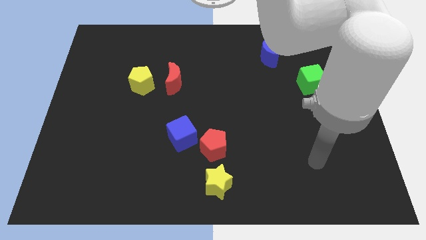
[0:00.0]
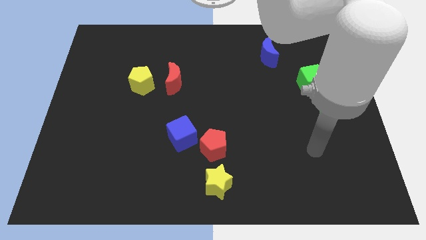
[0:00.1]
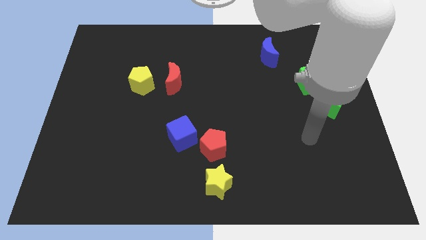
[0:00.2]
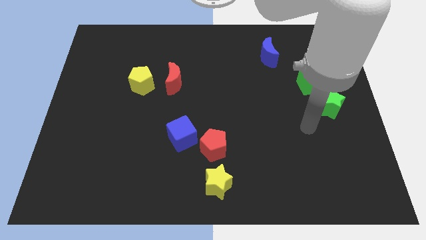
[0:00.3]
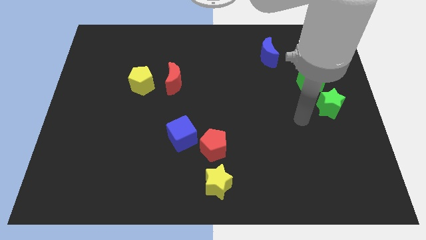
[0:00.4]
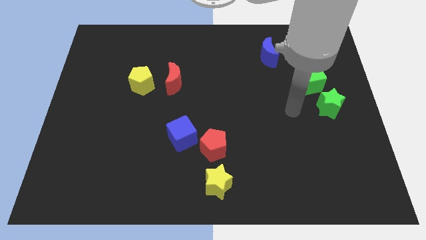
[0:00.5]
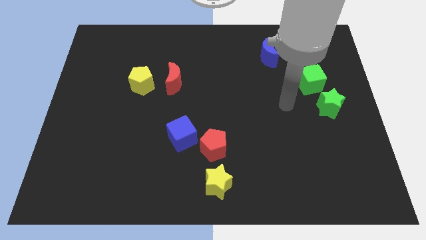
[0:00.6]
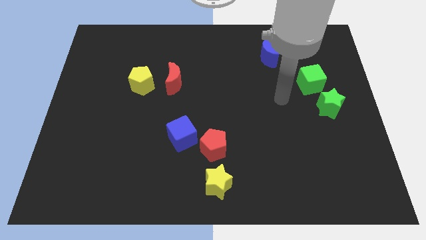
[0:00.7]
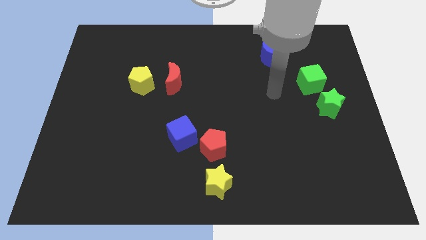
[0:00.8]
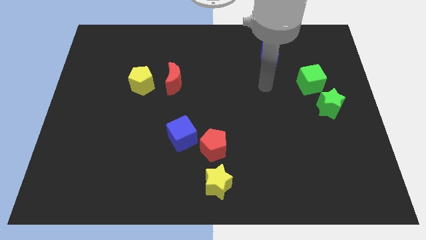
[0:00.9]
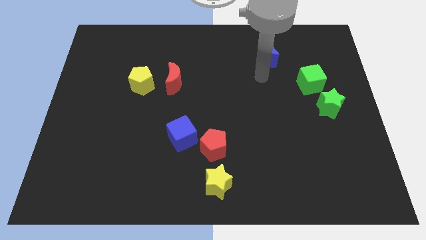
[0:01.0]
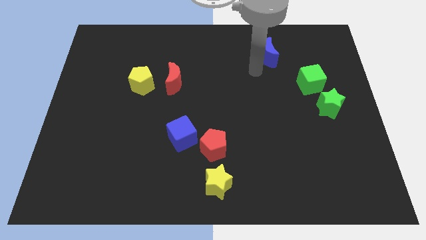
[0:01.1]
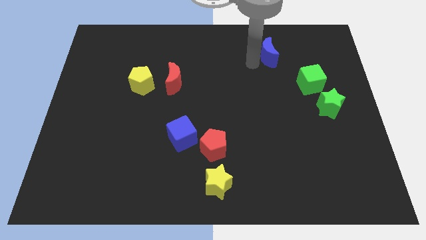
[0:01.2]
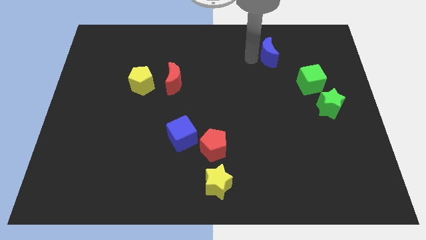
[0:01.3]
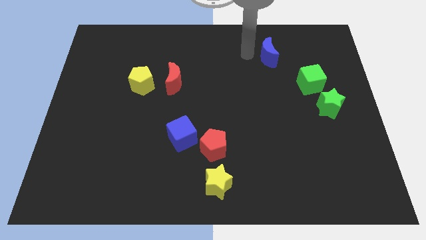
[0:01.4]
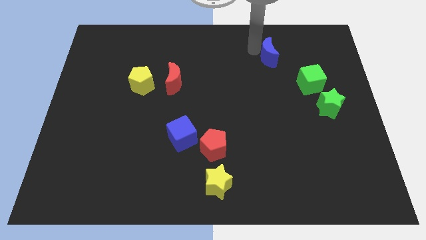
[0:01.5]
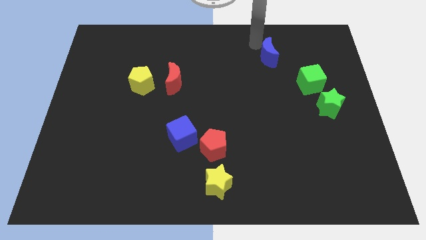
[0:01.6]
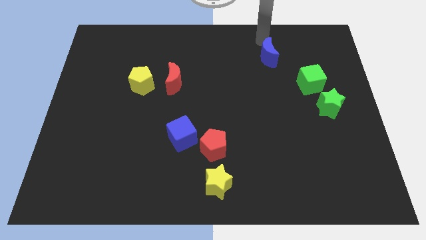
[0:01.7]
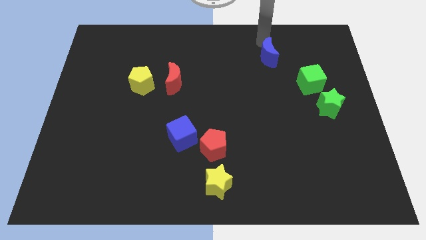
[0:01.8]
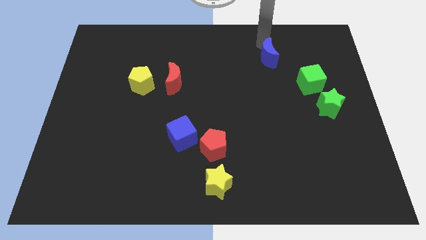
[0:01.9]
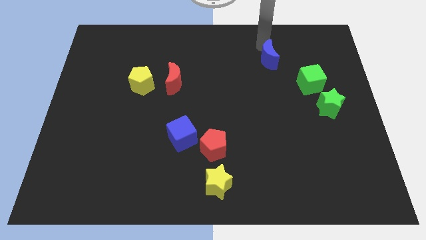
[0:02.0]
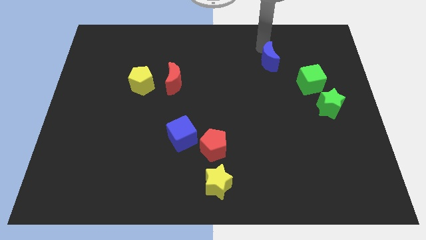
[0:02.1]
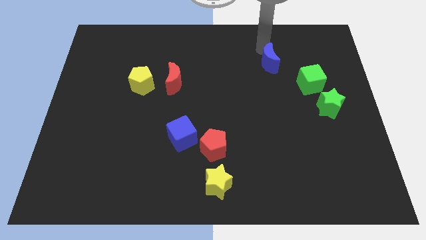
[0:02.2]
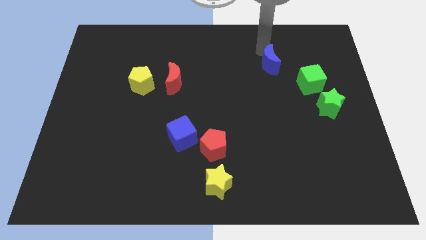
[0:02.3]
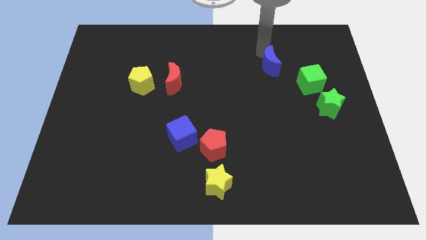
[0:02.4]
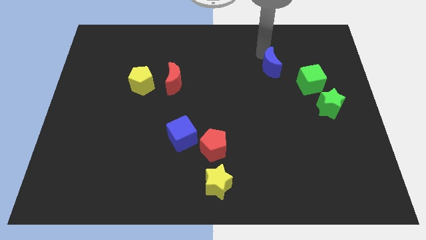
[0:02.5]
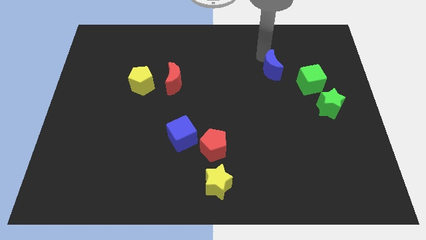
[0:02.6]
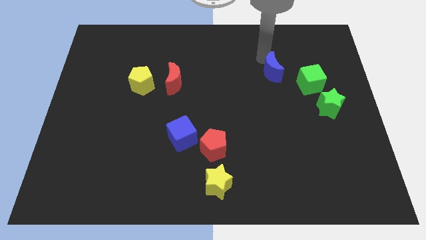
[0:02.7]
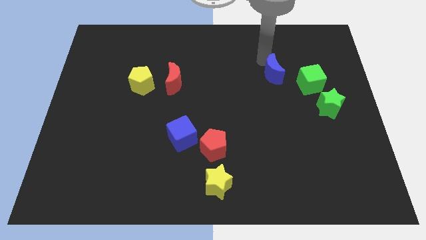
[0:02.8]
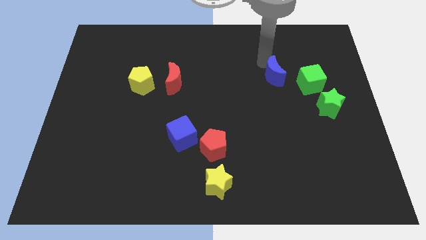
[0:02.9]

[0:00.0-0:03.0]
slightly push the blue moon down

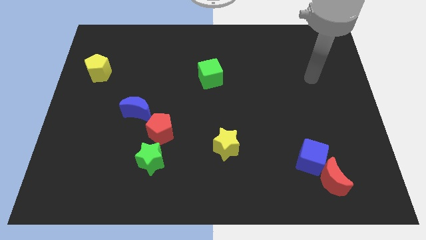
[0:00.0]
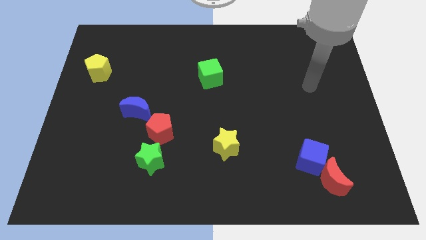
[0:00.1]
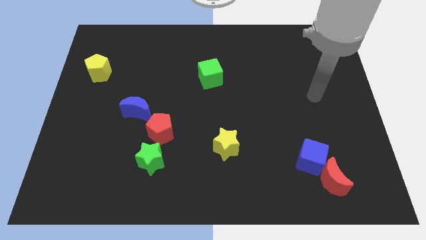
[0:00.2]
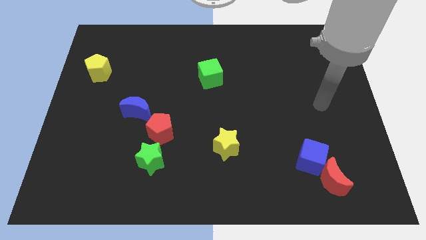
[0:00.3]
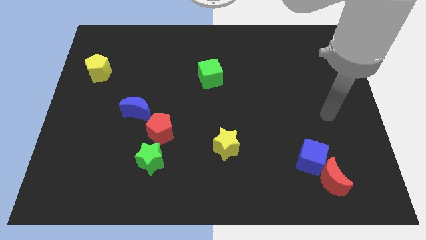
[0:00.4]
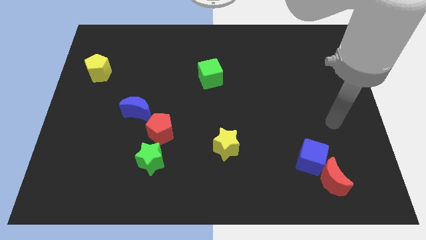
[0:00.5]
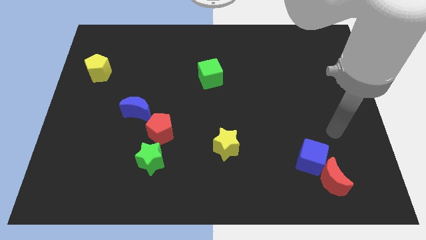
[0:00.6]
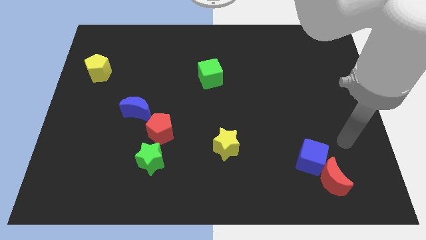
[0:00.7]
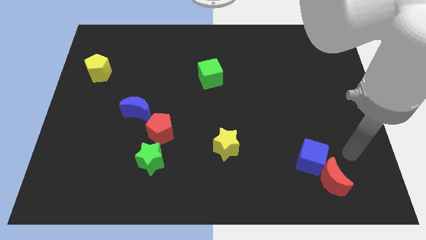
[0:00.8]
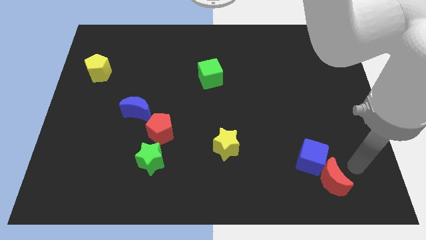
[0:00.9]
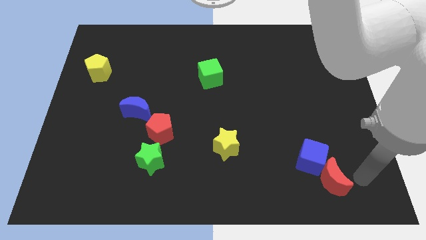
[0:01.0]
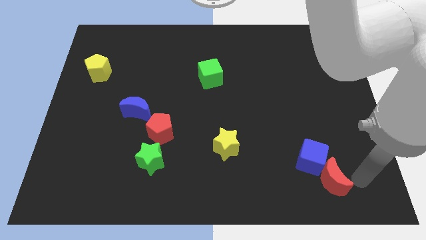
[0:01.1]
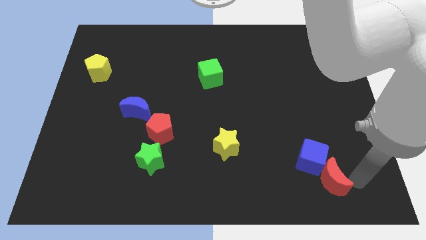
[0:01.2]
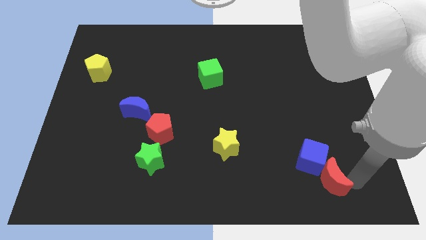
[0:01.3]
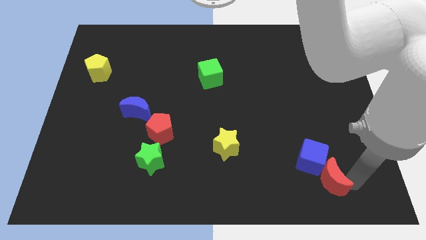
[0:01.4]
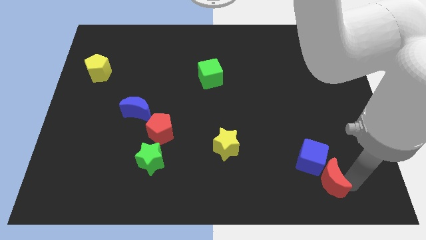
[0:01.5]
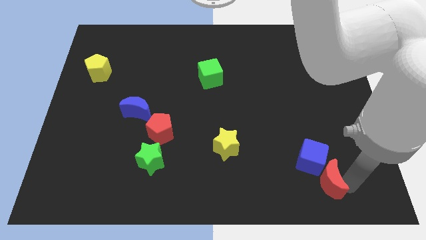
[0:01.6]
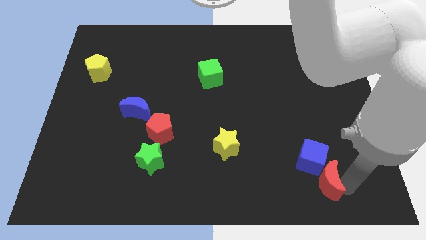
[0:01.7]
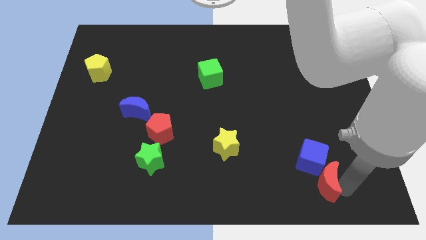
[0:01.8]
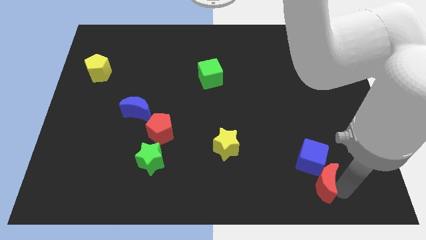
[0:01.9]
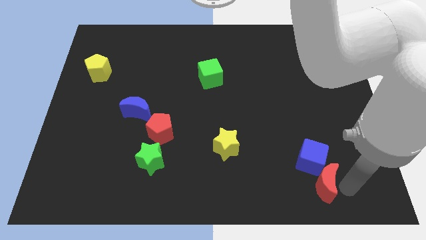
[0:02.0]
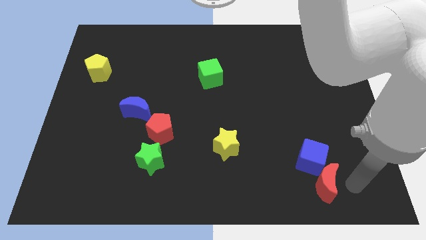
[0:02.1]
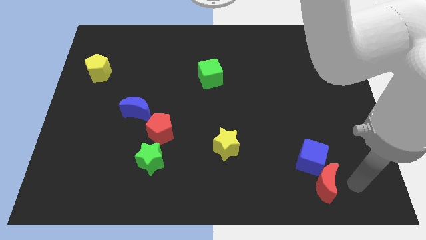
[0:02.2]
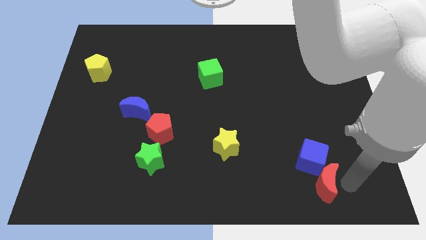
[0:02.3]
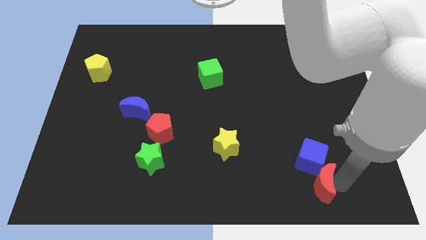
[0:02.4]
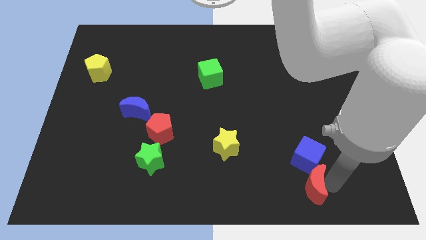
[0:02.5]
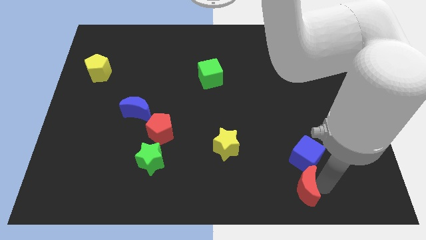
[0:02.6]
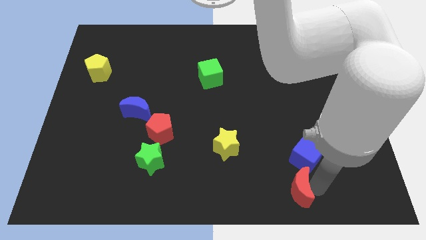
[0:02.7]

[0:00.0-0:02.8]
move the red moon a little bit to the left

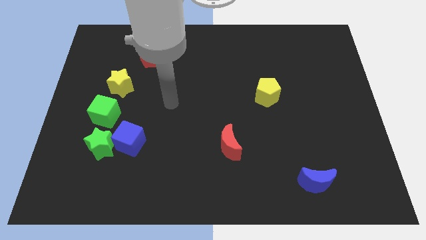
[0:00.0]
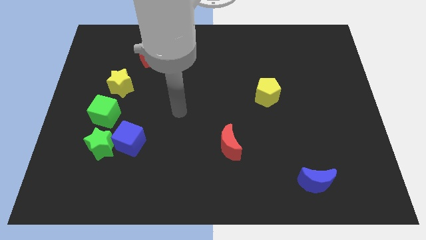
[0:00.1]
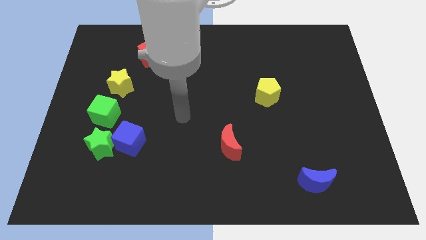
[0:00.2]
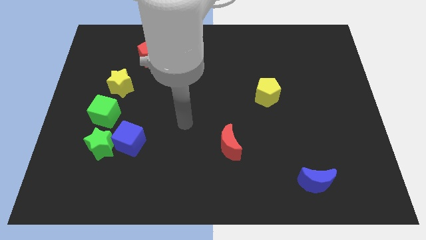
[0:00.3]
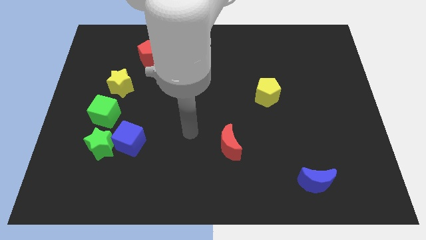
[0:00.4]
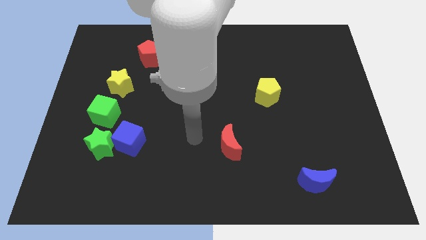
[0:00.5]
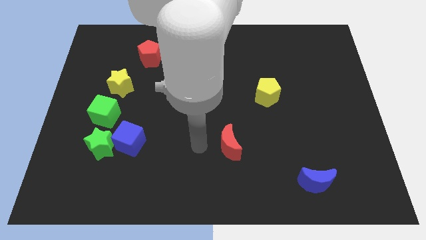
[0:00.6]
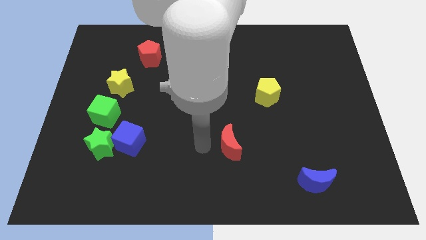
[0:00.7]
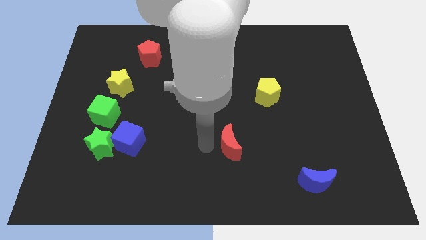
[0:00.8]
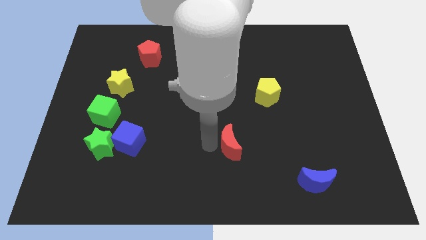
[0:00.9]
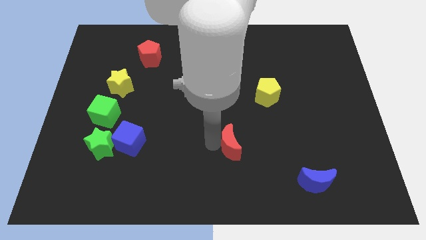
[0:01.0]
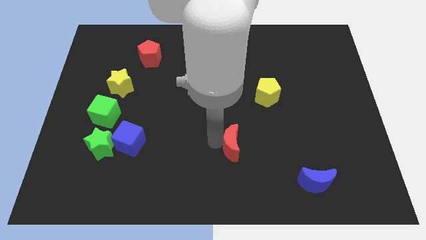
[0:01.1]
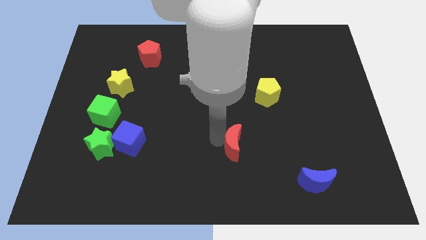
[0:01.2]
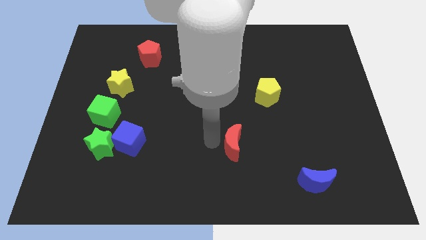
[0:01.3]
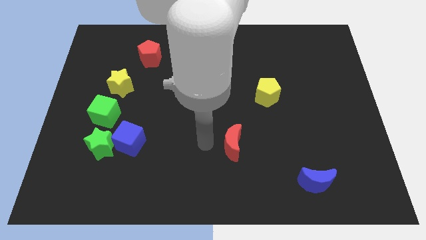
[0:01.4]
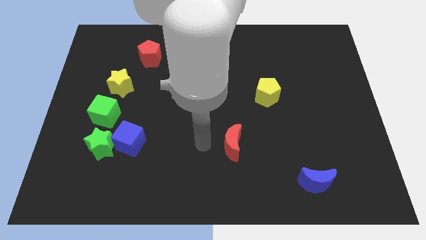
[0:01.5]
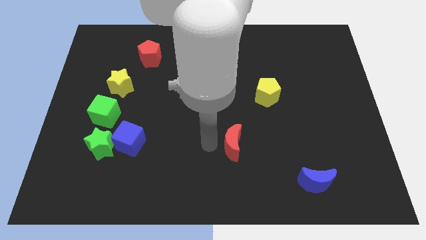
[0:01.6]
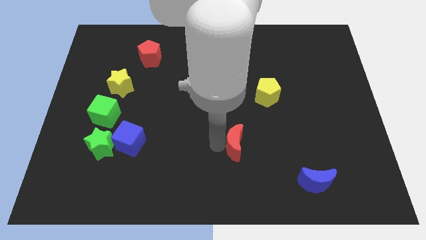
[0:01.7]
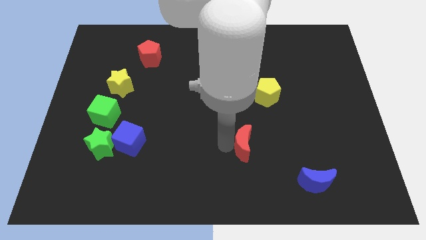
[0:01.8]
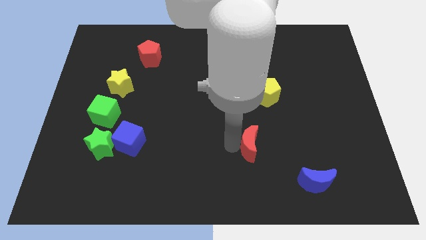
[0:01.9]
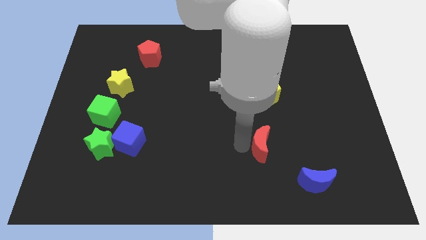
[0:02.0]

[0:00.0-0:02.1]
push the red moon right a little

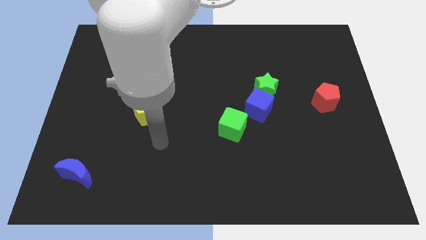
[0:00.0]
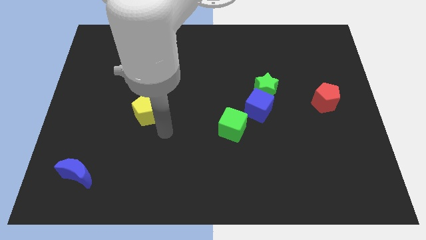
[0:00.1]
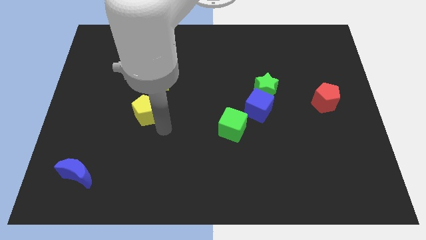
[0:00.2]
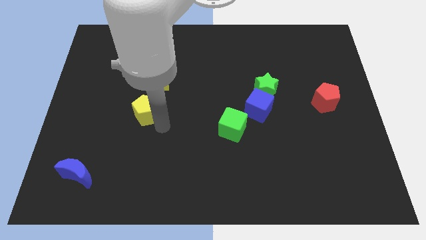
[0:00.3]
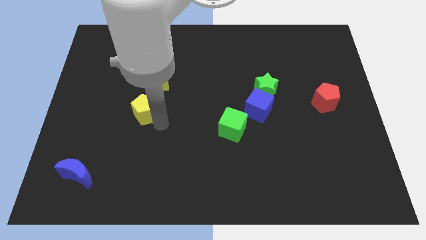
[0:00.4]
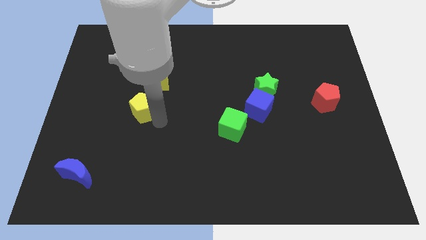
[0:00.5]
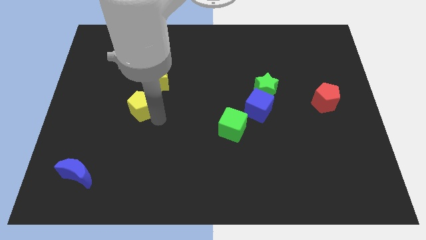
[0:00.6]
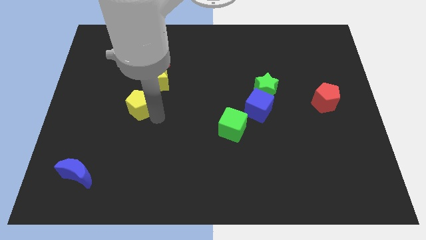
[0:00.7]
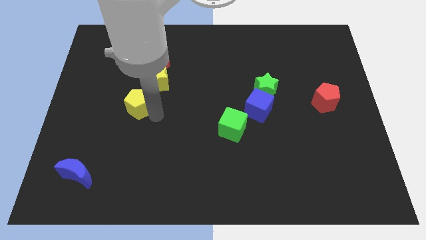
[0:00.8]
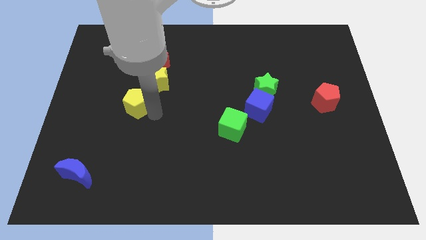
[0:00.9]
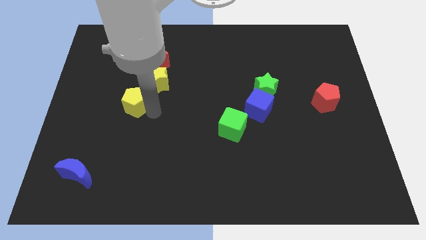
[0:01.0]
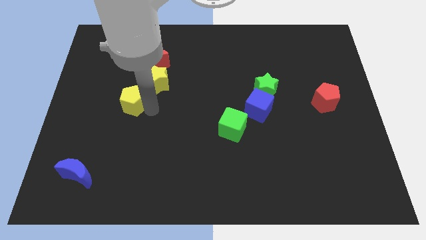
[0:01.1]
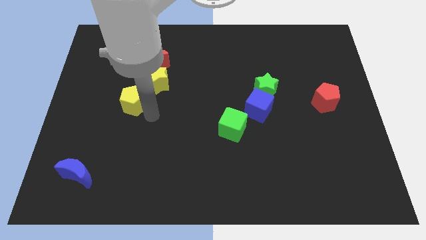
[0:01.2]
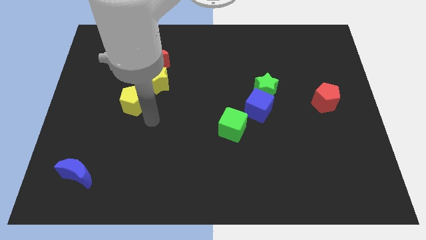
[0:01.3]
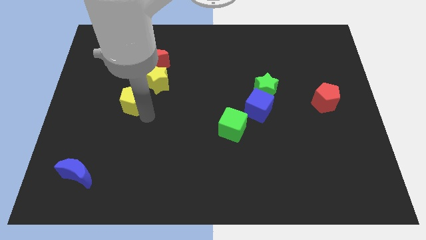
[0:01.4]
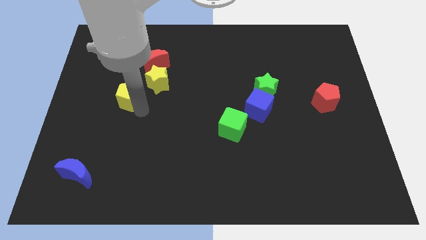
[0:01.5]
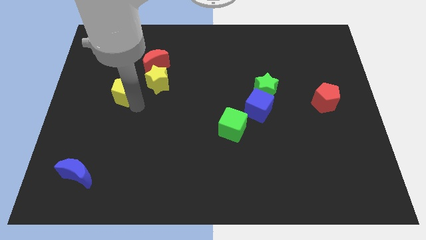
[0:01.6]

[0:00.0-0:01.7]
push the yellow pentagon upwards and left a bit
